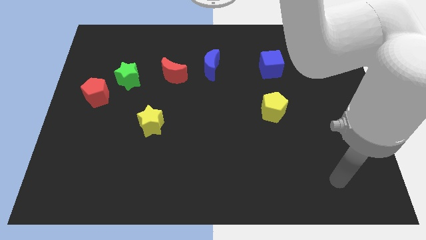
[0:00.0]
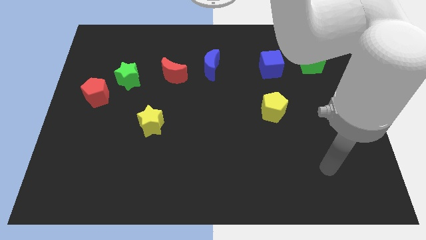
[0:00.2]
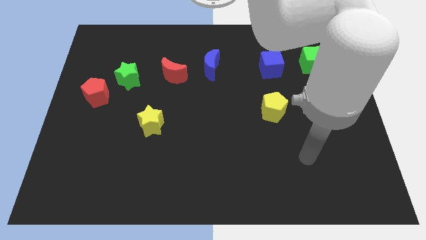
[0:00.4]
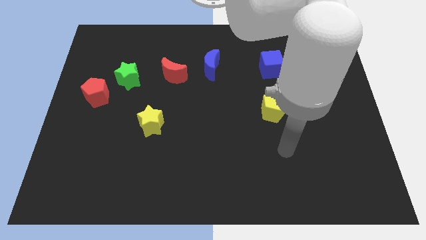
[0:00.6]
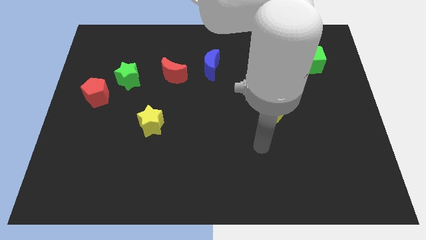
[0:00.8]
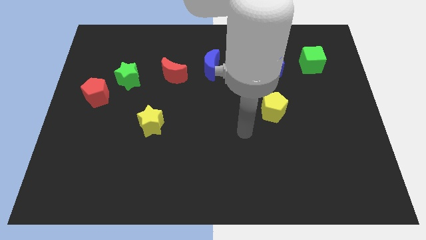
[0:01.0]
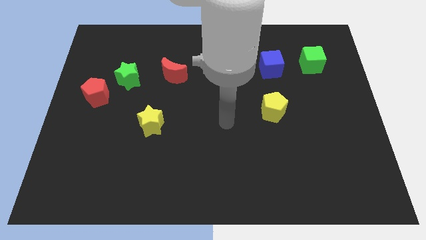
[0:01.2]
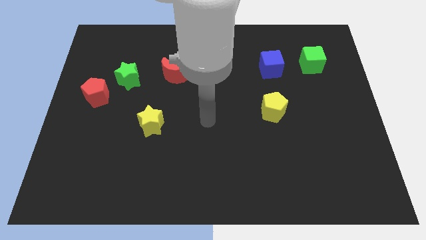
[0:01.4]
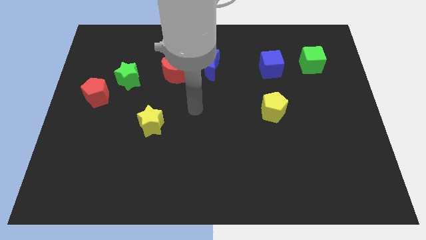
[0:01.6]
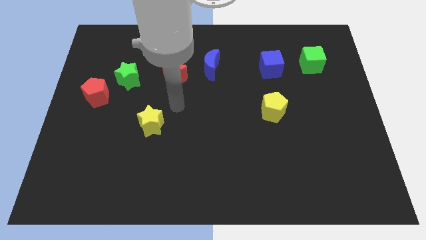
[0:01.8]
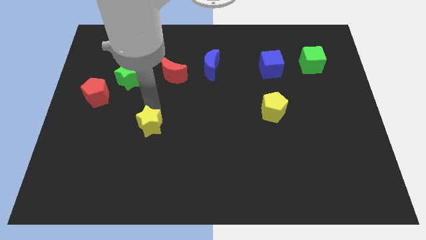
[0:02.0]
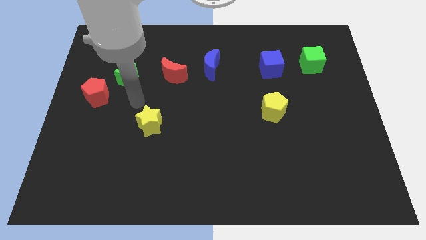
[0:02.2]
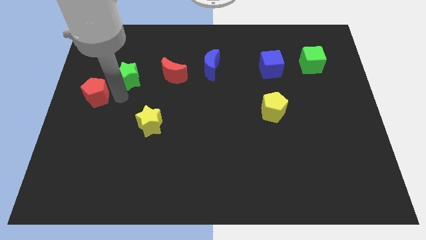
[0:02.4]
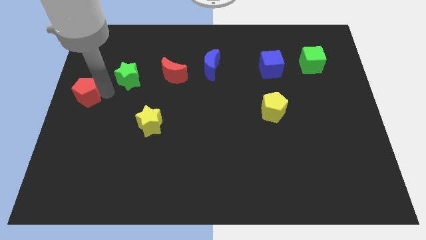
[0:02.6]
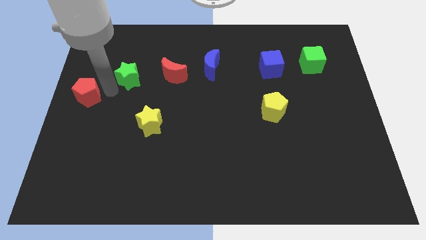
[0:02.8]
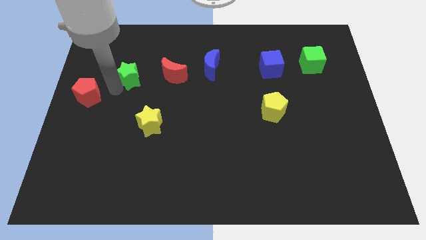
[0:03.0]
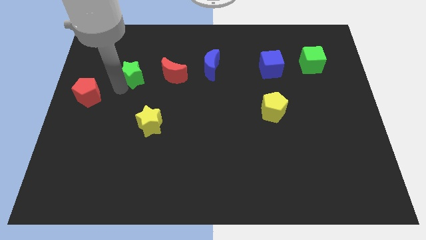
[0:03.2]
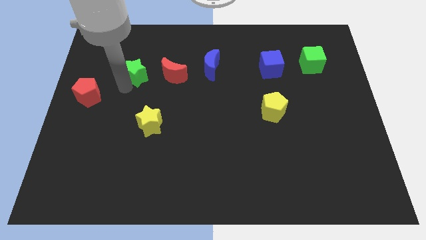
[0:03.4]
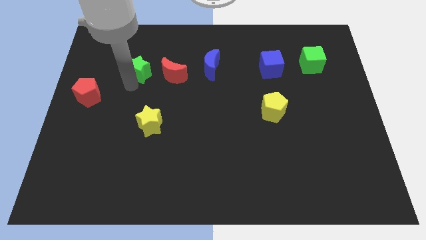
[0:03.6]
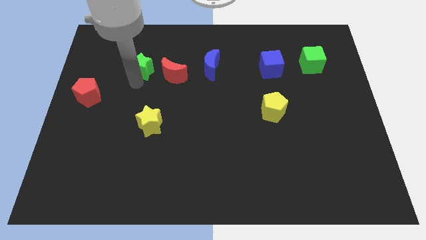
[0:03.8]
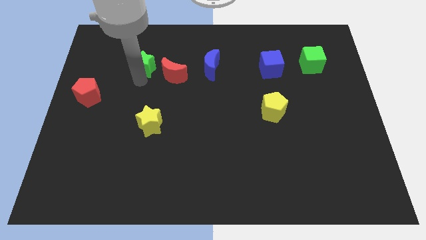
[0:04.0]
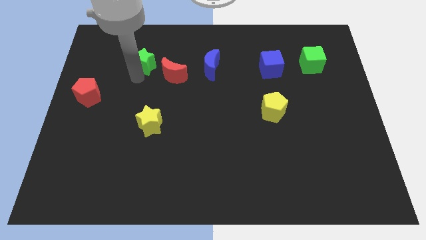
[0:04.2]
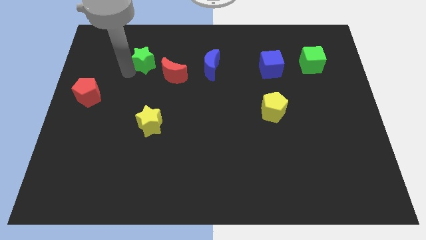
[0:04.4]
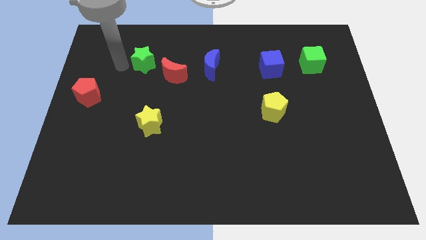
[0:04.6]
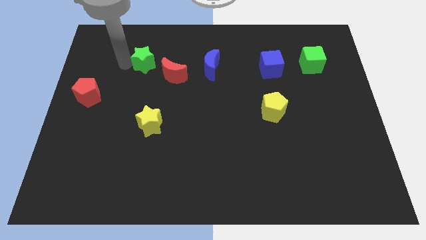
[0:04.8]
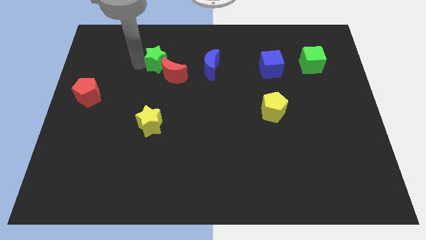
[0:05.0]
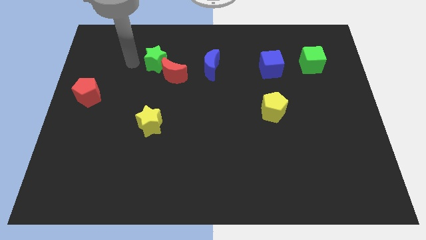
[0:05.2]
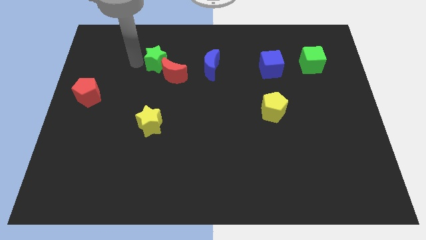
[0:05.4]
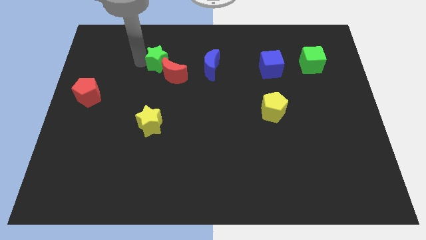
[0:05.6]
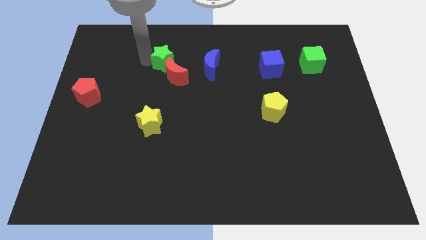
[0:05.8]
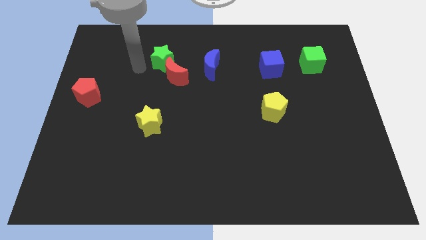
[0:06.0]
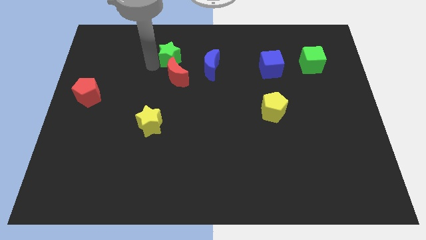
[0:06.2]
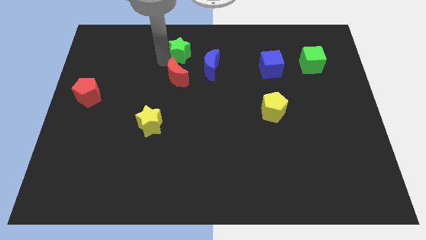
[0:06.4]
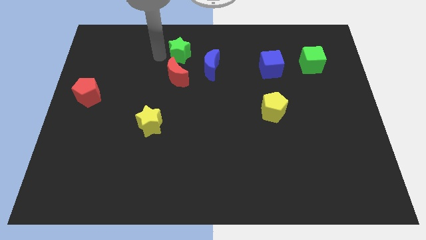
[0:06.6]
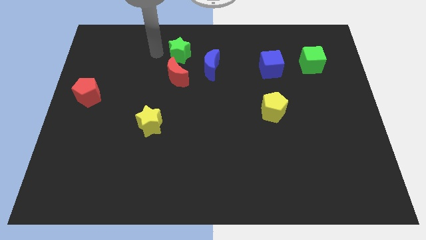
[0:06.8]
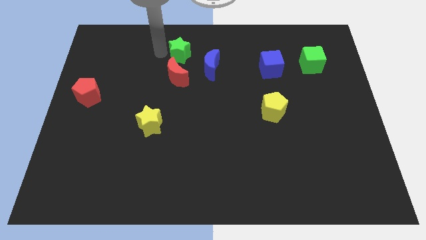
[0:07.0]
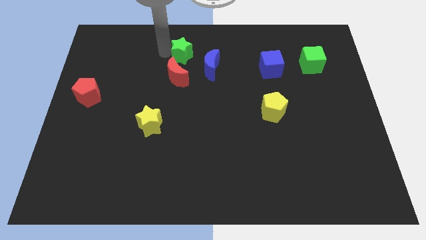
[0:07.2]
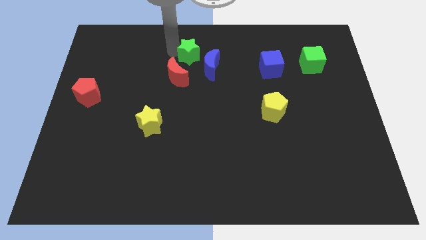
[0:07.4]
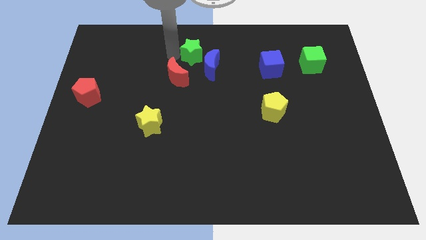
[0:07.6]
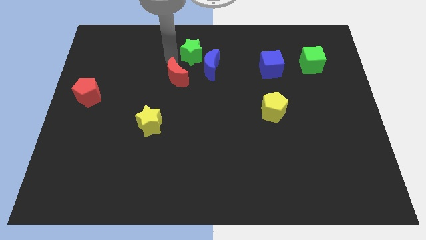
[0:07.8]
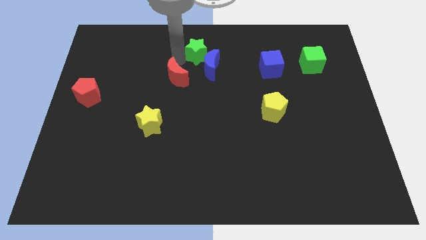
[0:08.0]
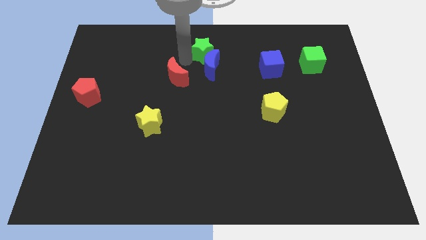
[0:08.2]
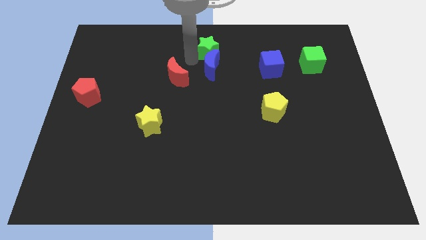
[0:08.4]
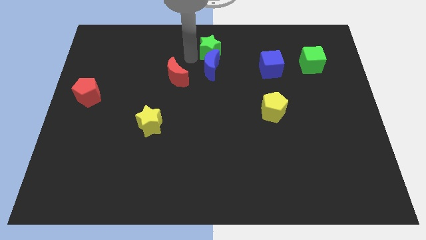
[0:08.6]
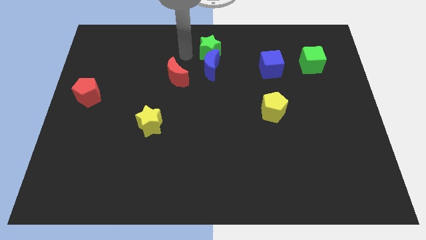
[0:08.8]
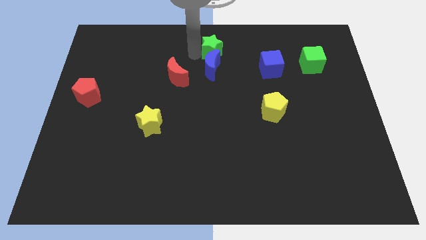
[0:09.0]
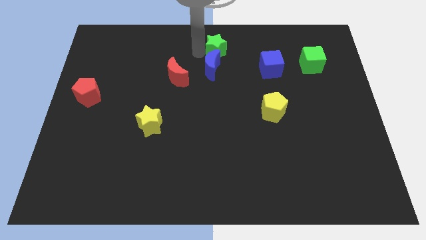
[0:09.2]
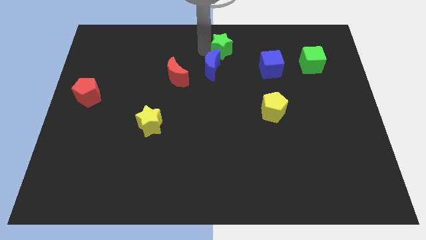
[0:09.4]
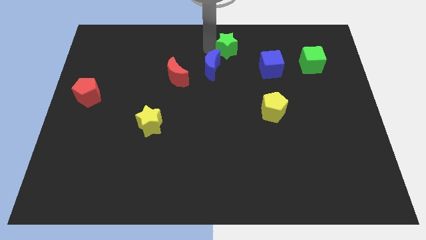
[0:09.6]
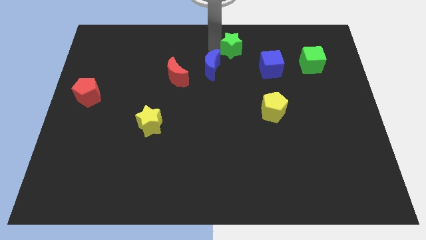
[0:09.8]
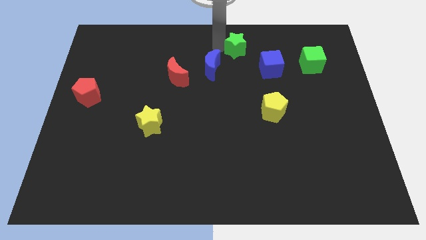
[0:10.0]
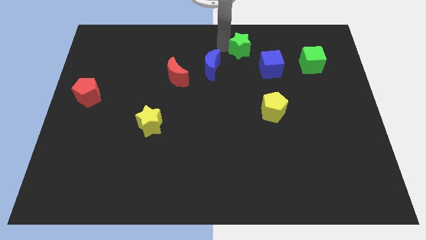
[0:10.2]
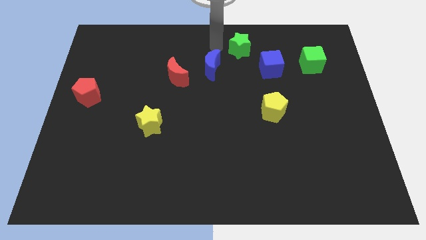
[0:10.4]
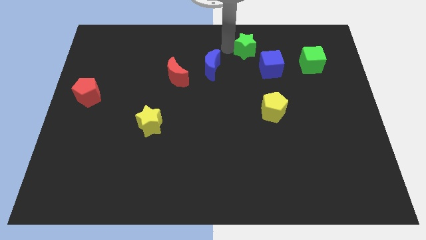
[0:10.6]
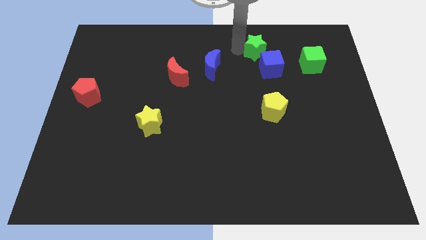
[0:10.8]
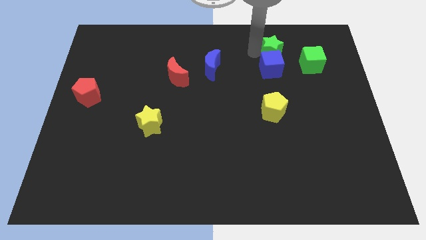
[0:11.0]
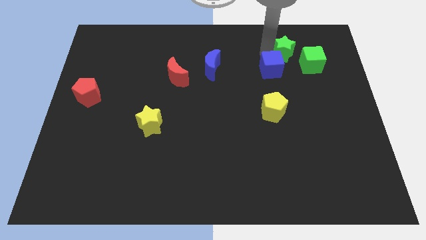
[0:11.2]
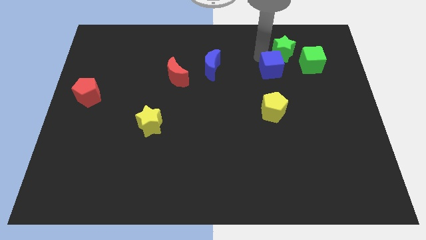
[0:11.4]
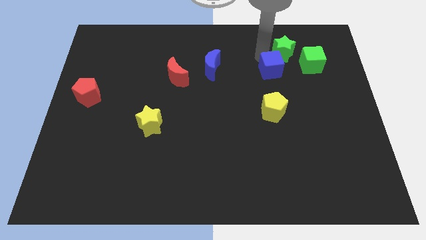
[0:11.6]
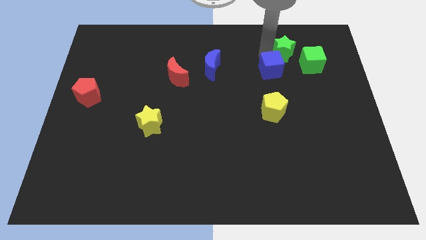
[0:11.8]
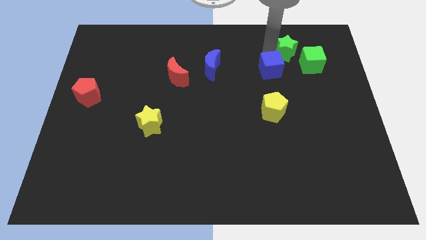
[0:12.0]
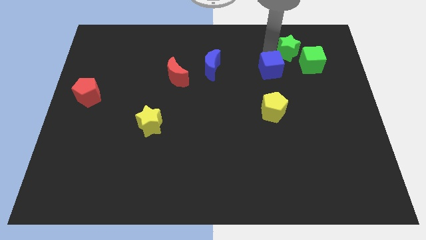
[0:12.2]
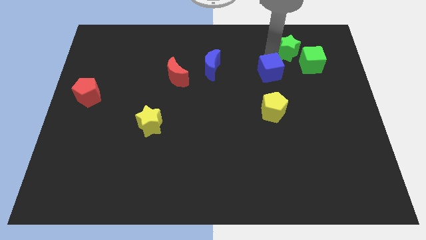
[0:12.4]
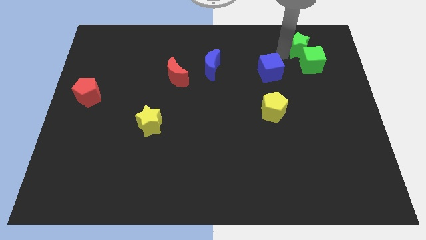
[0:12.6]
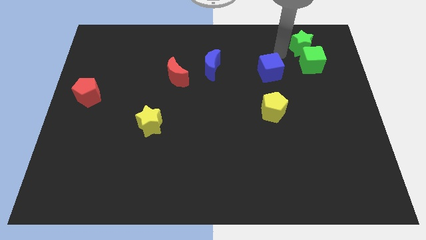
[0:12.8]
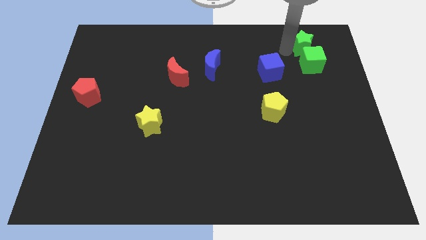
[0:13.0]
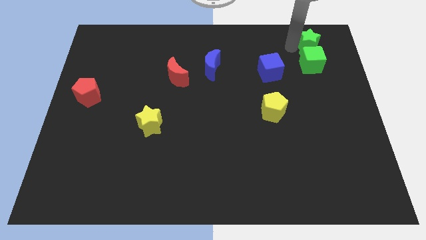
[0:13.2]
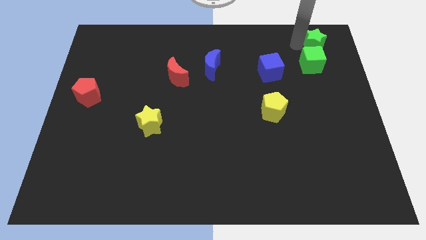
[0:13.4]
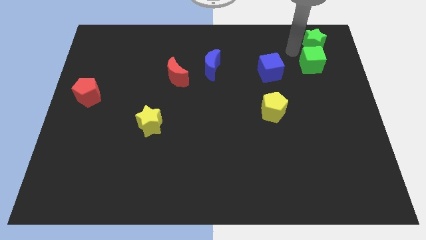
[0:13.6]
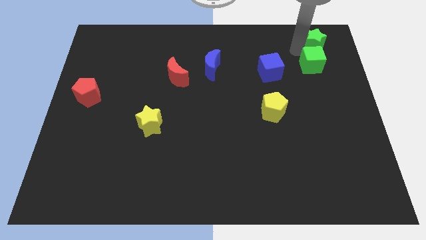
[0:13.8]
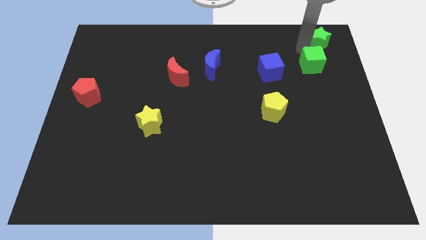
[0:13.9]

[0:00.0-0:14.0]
put the green star to the top right
